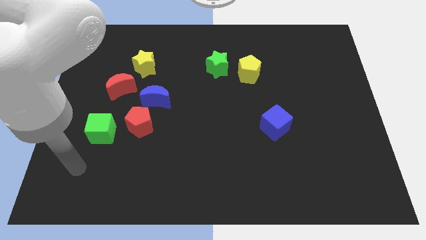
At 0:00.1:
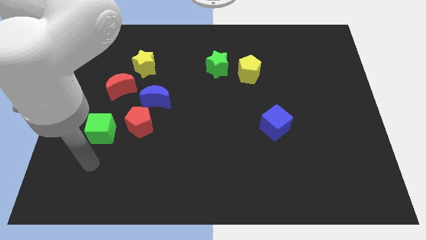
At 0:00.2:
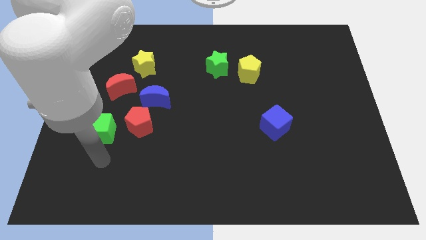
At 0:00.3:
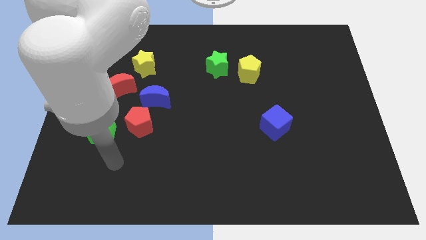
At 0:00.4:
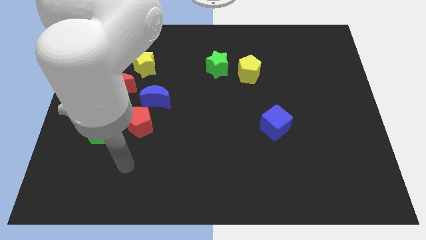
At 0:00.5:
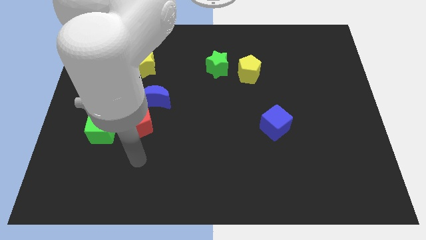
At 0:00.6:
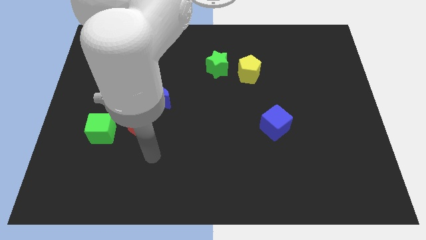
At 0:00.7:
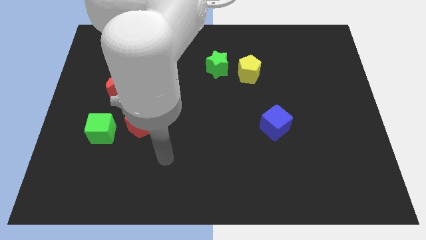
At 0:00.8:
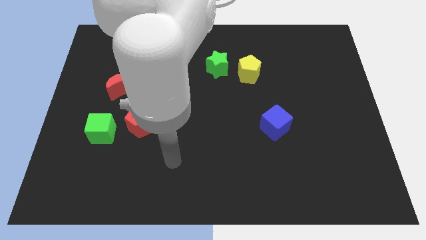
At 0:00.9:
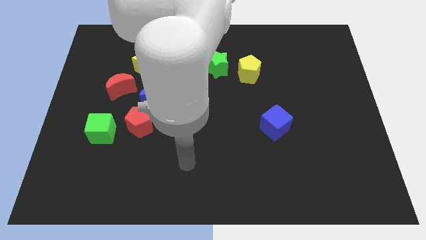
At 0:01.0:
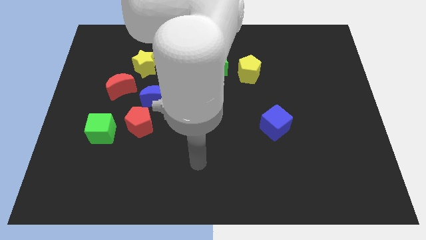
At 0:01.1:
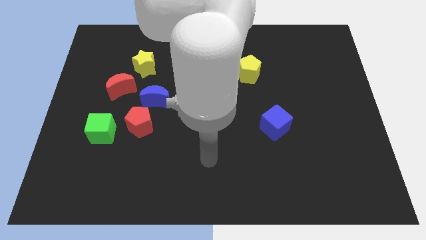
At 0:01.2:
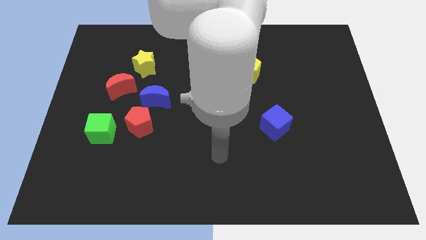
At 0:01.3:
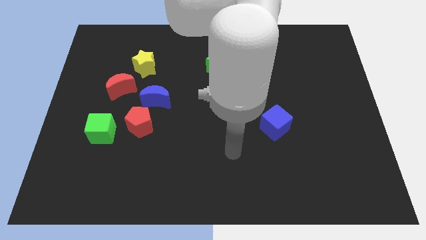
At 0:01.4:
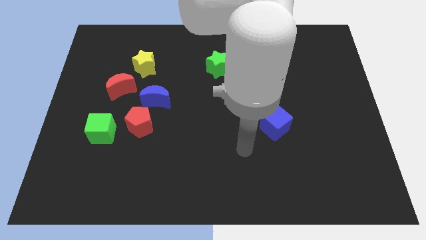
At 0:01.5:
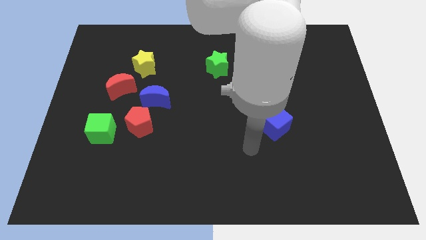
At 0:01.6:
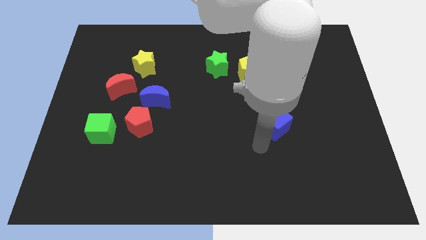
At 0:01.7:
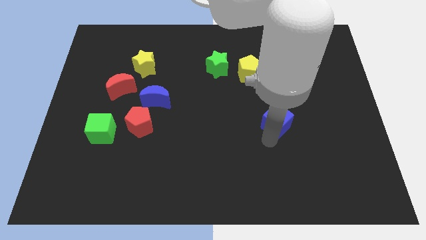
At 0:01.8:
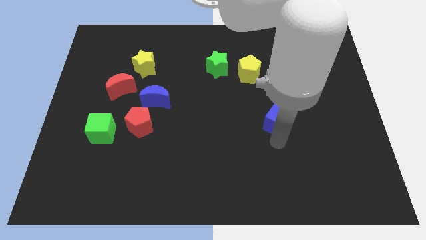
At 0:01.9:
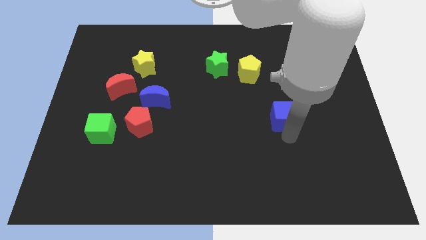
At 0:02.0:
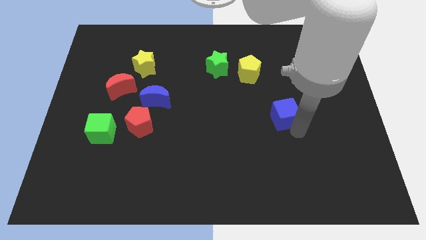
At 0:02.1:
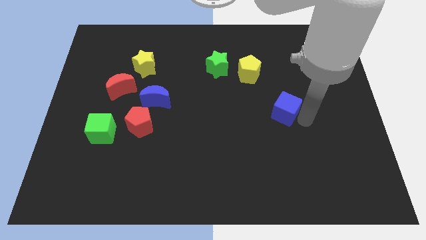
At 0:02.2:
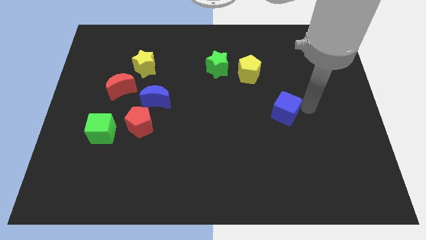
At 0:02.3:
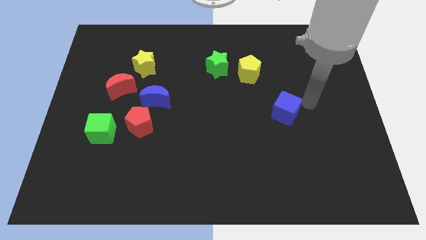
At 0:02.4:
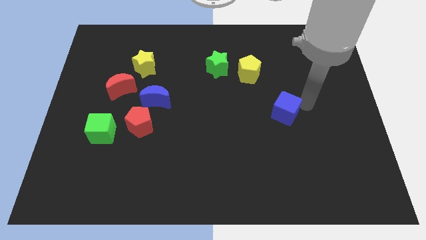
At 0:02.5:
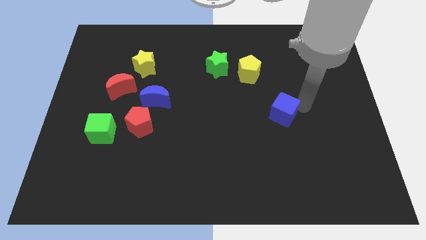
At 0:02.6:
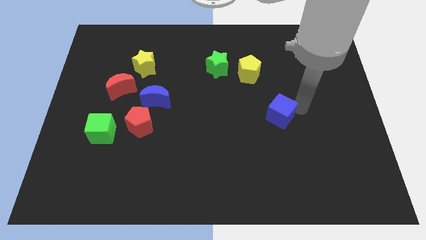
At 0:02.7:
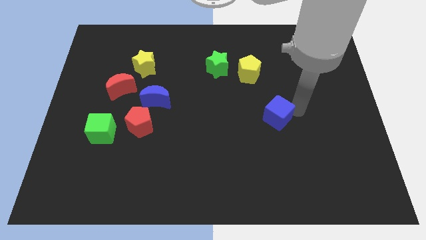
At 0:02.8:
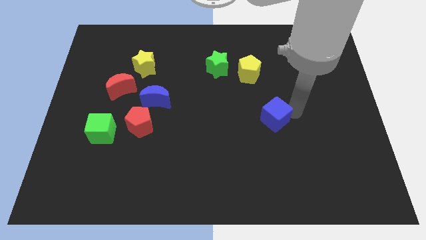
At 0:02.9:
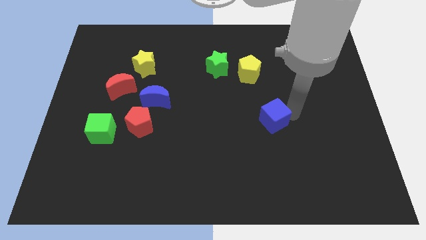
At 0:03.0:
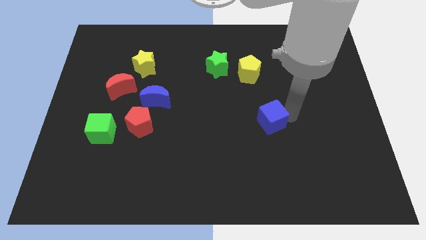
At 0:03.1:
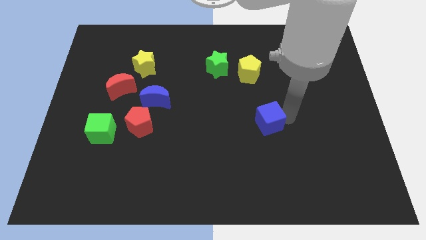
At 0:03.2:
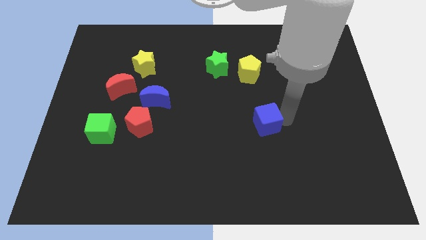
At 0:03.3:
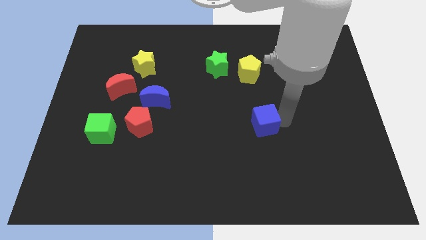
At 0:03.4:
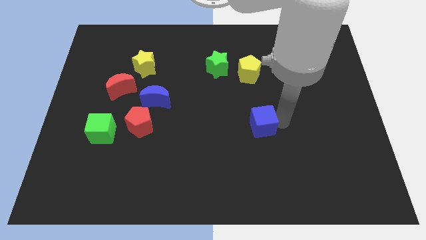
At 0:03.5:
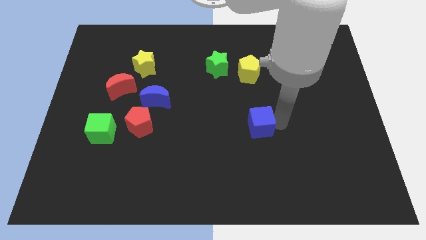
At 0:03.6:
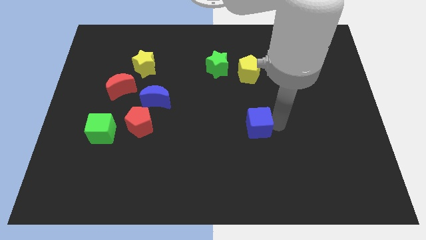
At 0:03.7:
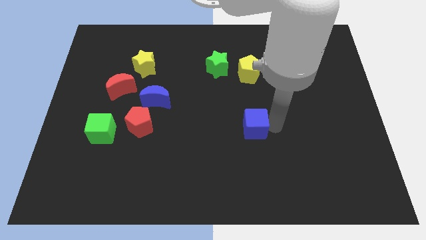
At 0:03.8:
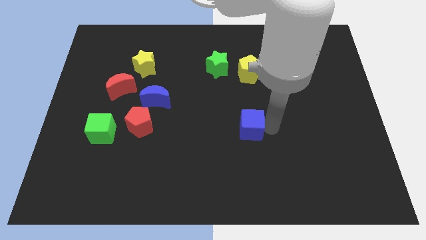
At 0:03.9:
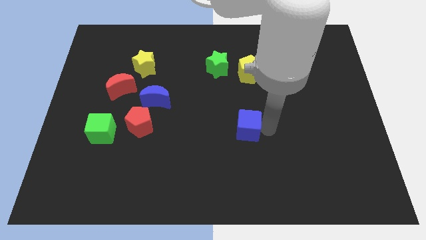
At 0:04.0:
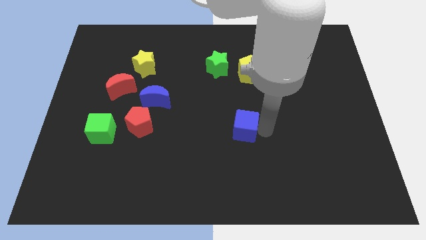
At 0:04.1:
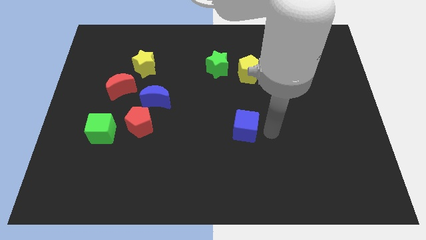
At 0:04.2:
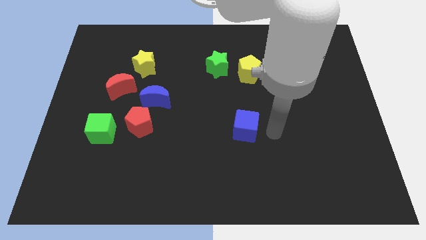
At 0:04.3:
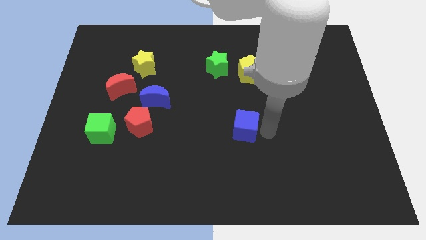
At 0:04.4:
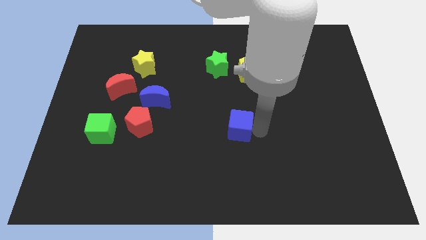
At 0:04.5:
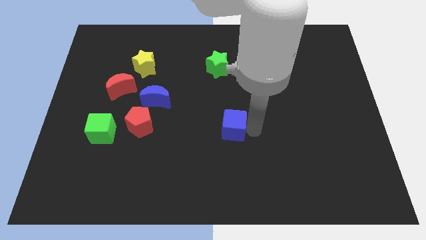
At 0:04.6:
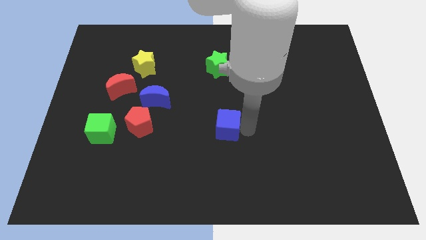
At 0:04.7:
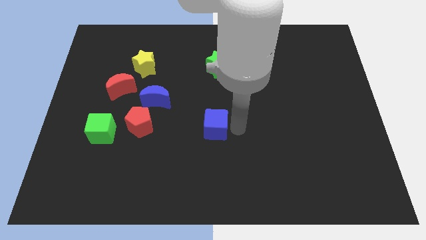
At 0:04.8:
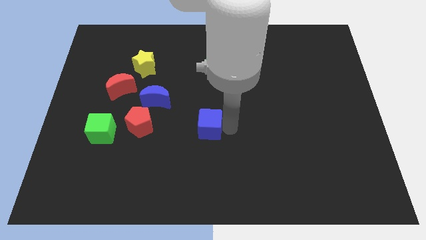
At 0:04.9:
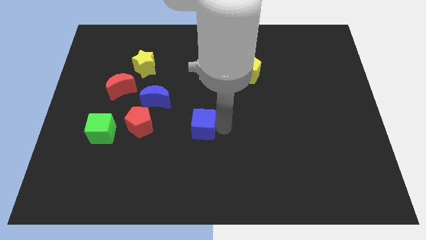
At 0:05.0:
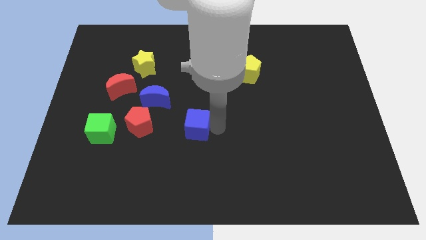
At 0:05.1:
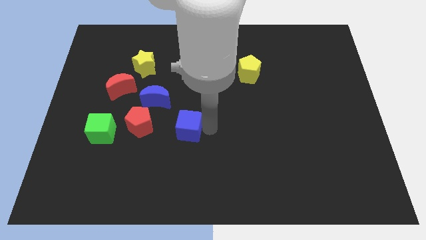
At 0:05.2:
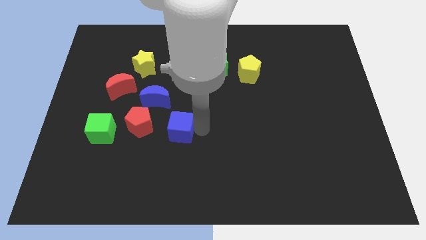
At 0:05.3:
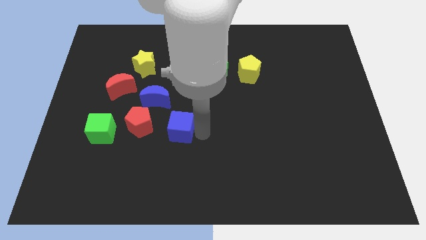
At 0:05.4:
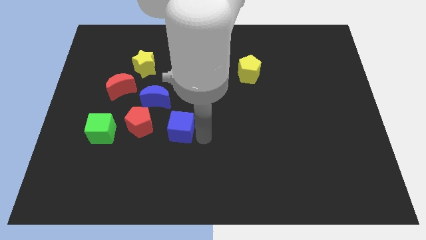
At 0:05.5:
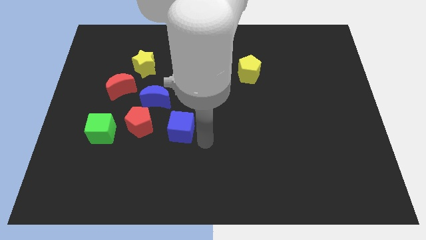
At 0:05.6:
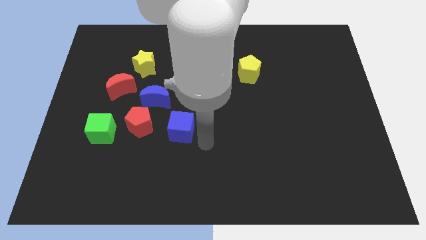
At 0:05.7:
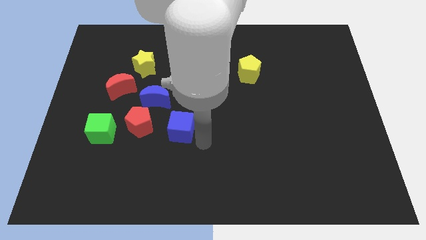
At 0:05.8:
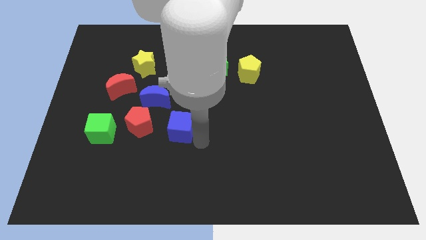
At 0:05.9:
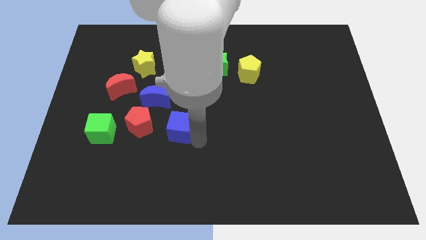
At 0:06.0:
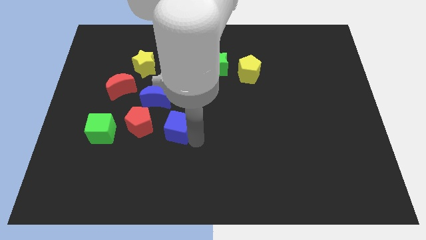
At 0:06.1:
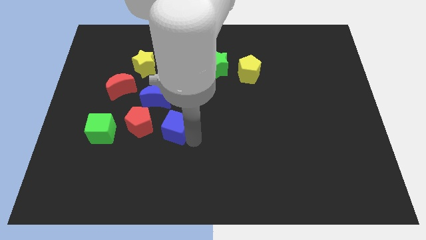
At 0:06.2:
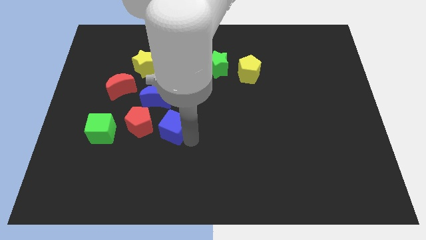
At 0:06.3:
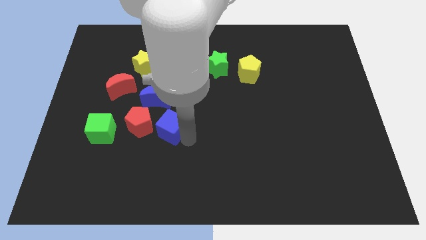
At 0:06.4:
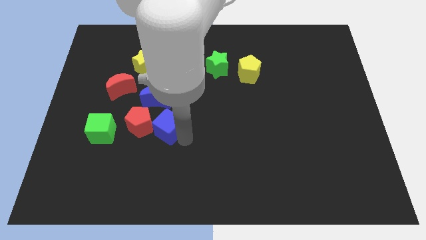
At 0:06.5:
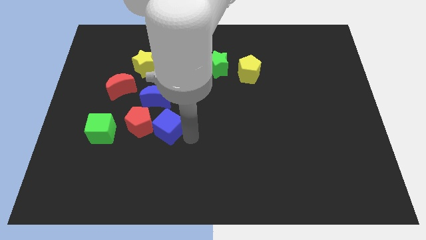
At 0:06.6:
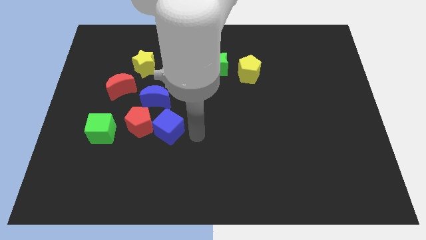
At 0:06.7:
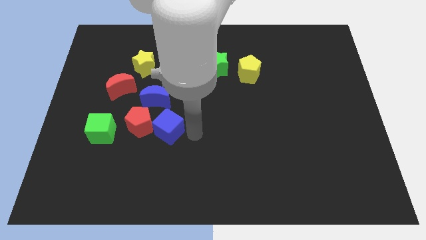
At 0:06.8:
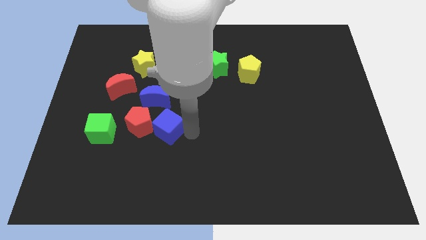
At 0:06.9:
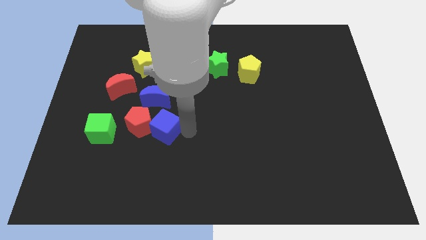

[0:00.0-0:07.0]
push the blue cube next to the red pentagon
